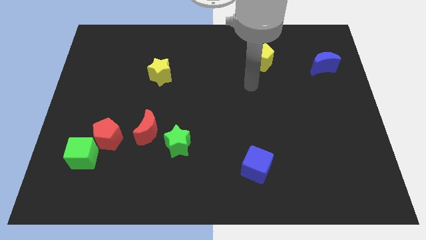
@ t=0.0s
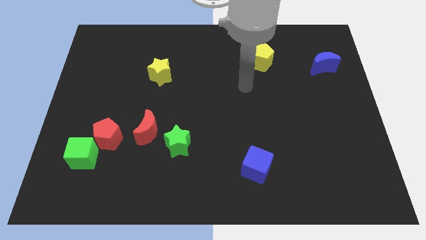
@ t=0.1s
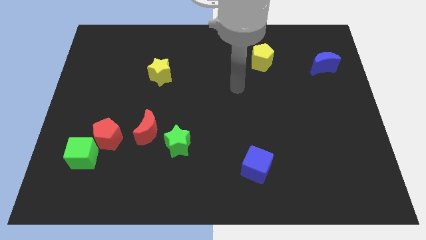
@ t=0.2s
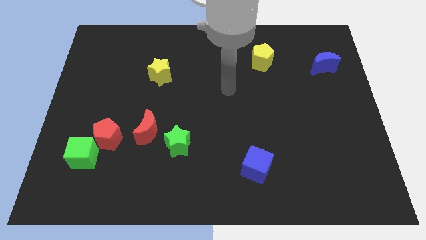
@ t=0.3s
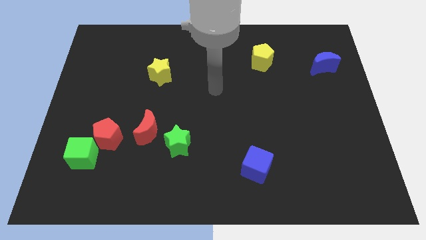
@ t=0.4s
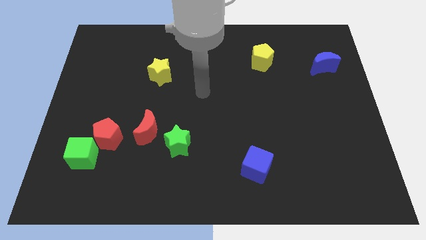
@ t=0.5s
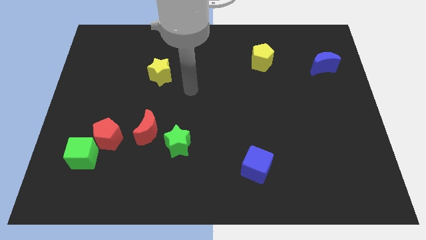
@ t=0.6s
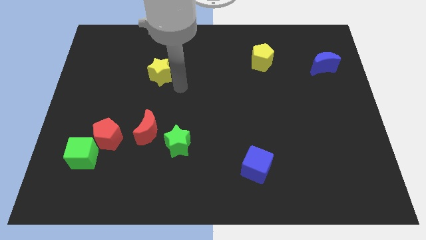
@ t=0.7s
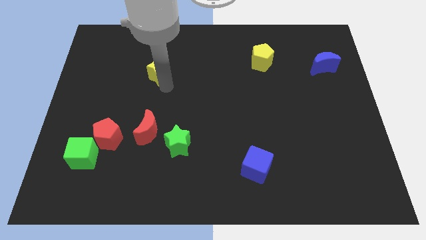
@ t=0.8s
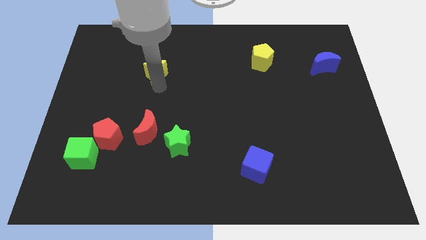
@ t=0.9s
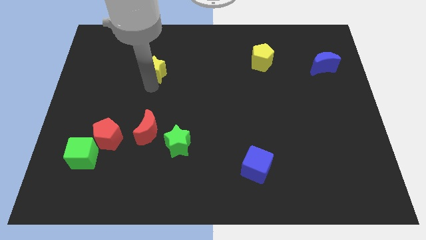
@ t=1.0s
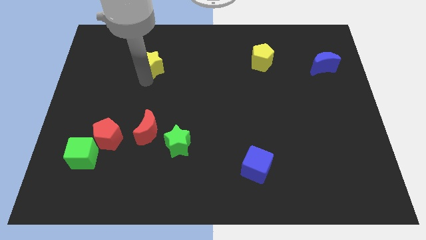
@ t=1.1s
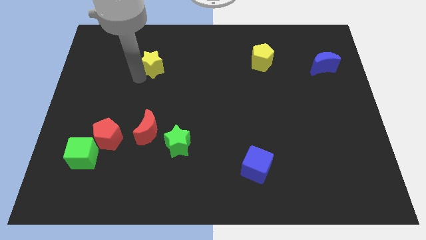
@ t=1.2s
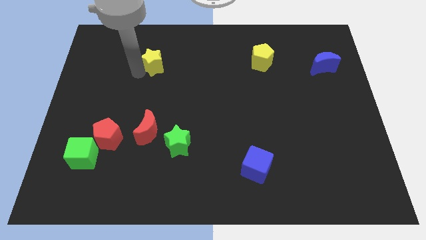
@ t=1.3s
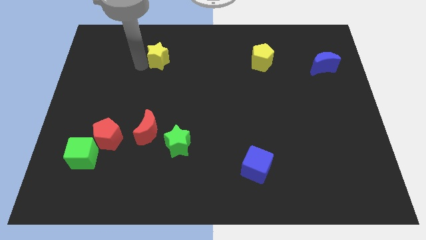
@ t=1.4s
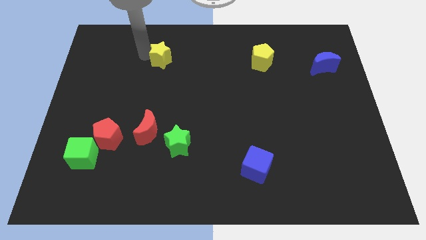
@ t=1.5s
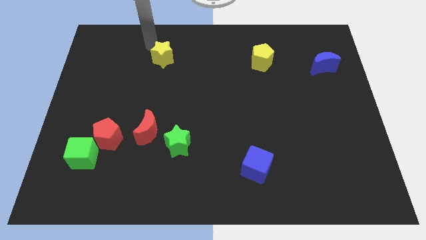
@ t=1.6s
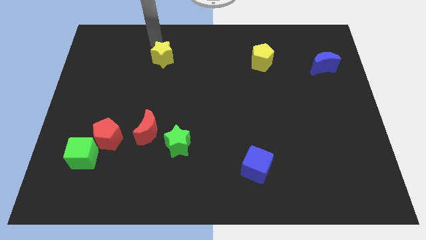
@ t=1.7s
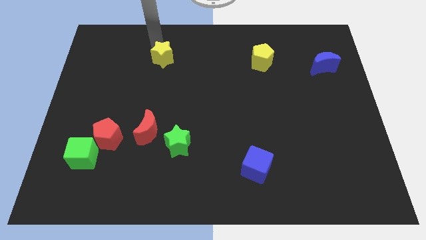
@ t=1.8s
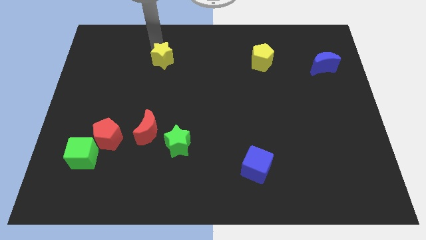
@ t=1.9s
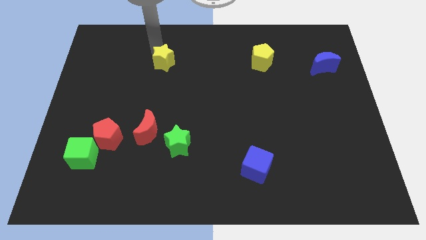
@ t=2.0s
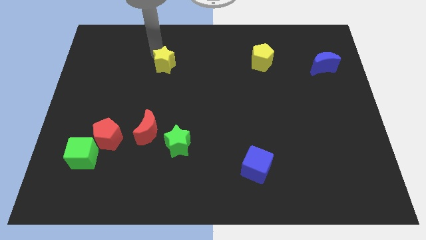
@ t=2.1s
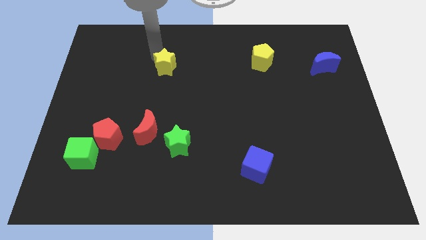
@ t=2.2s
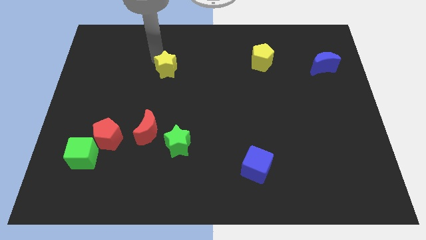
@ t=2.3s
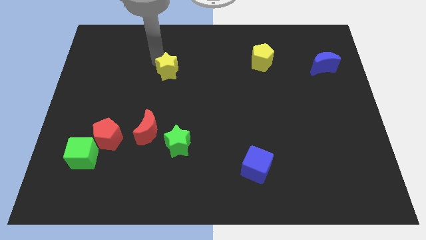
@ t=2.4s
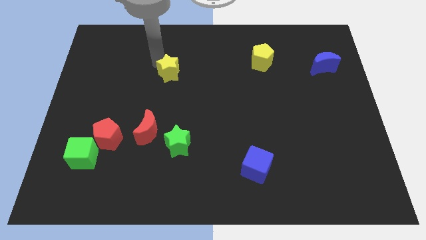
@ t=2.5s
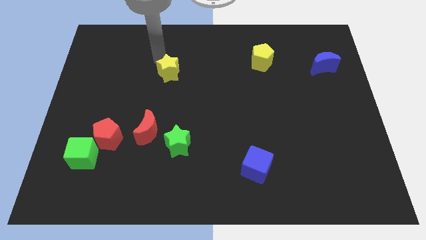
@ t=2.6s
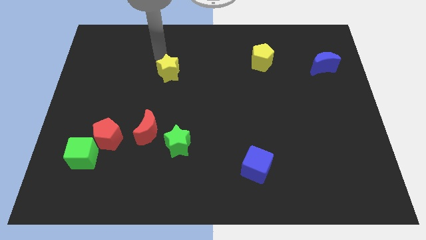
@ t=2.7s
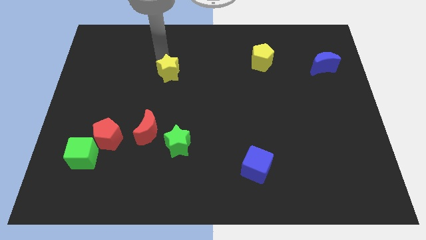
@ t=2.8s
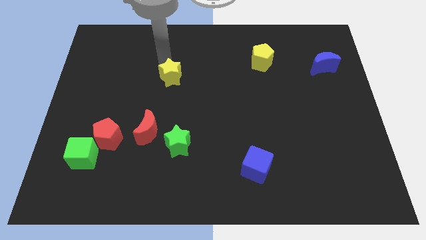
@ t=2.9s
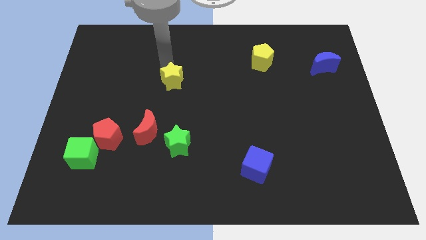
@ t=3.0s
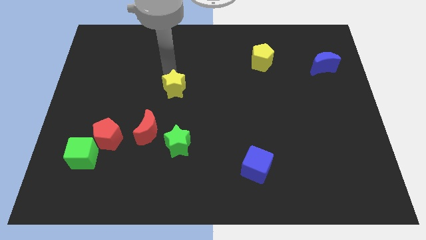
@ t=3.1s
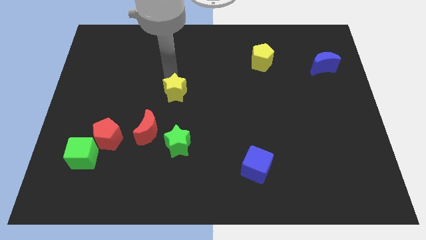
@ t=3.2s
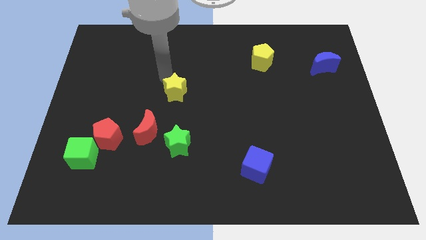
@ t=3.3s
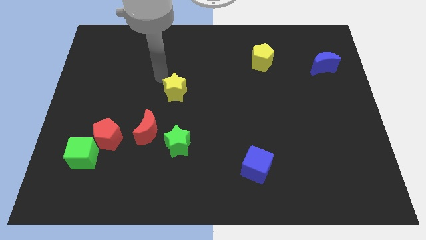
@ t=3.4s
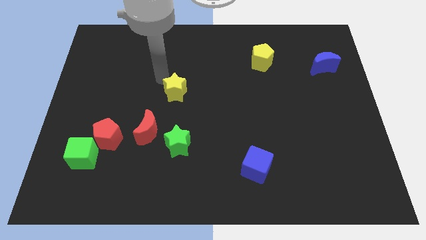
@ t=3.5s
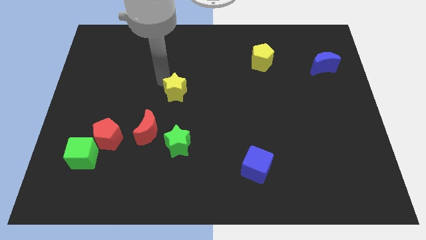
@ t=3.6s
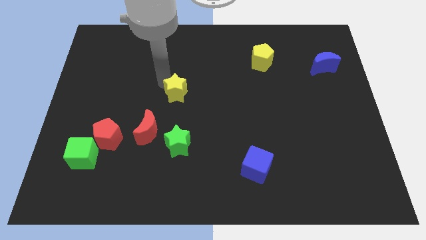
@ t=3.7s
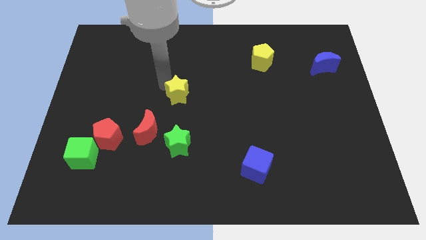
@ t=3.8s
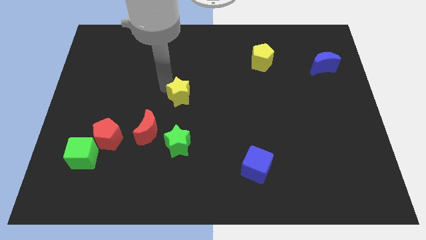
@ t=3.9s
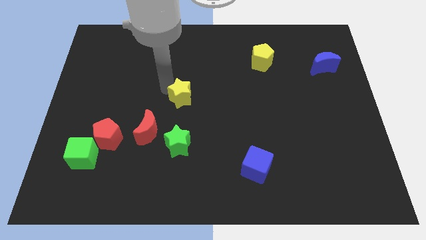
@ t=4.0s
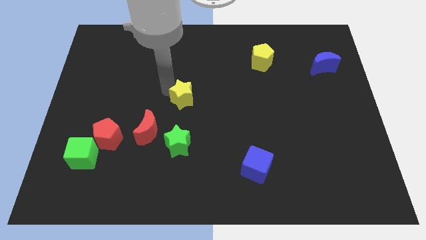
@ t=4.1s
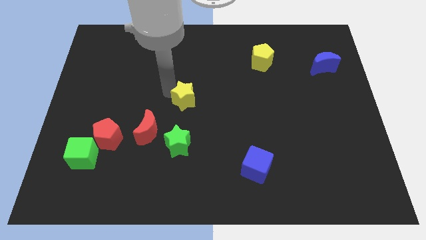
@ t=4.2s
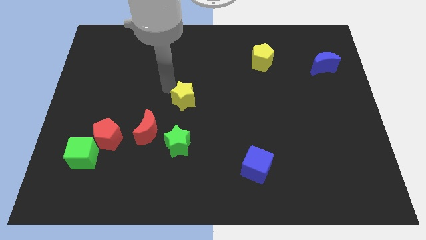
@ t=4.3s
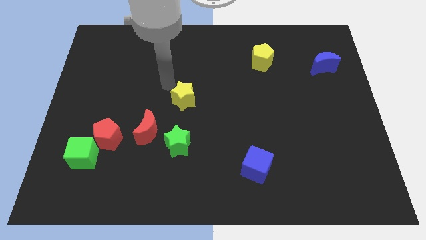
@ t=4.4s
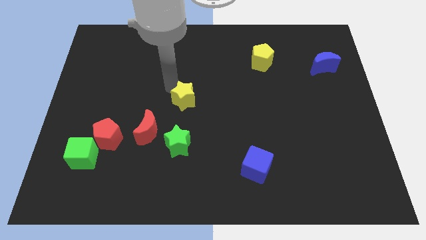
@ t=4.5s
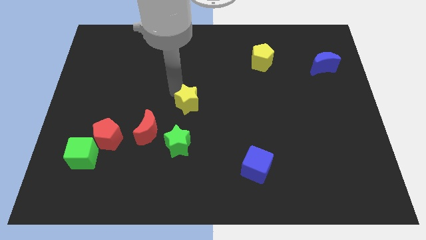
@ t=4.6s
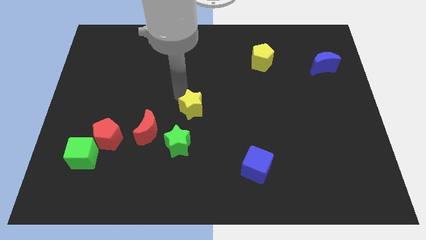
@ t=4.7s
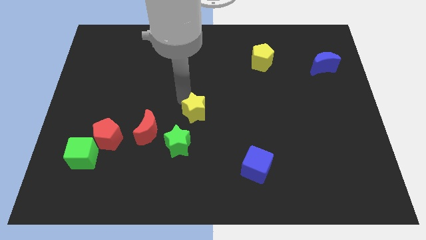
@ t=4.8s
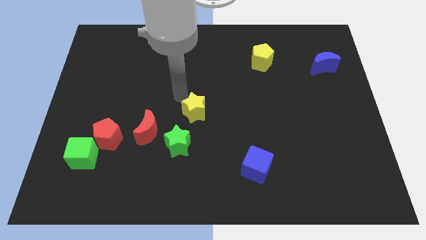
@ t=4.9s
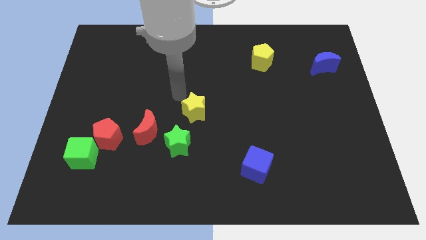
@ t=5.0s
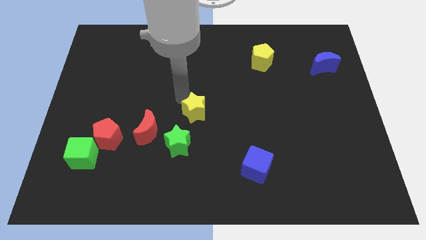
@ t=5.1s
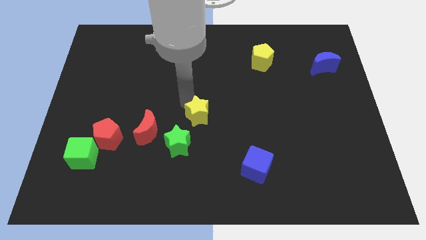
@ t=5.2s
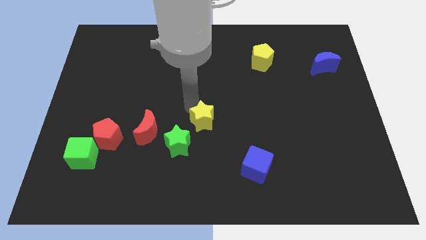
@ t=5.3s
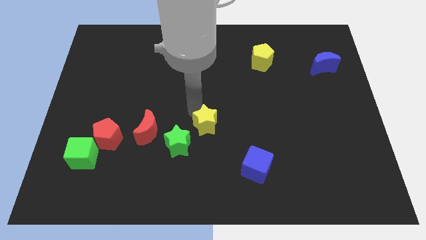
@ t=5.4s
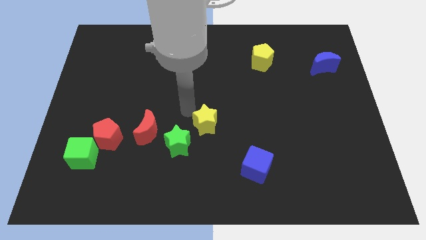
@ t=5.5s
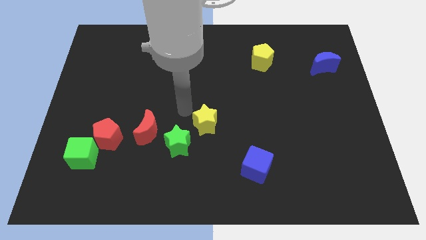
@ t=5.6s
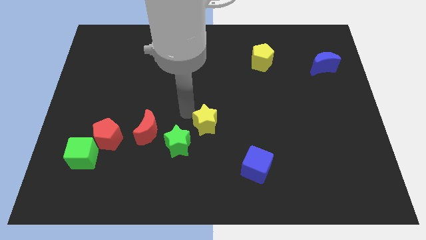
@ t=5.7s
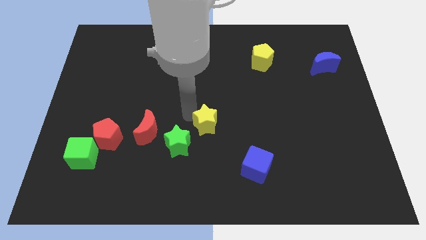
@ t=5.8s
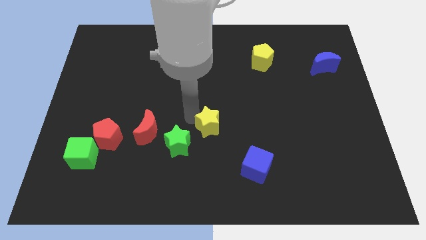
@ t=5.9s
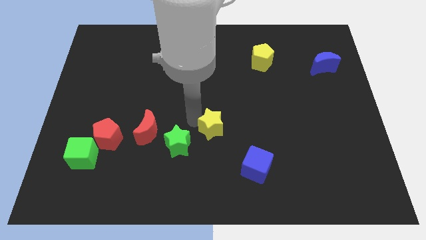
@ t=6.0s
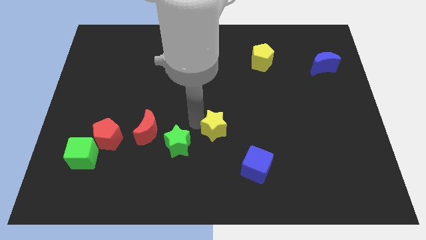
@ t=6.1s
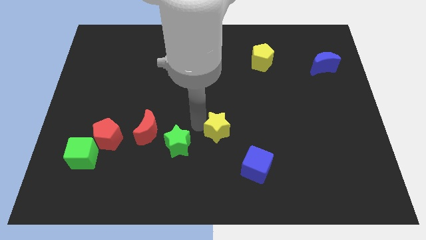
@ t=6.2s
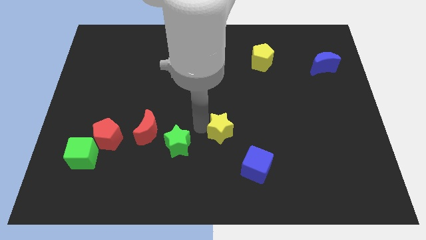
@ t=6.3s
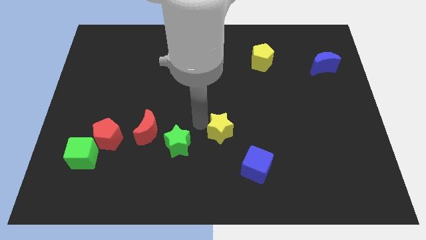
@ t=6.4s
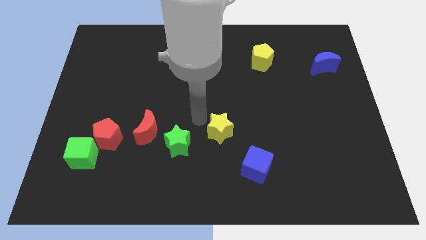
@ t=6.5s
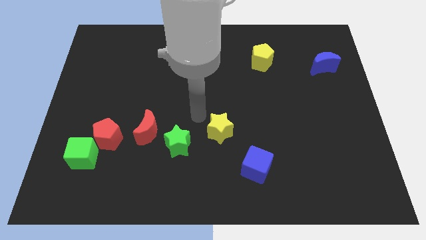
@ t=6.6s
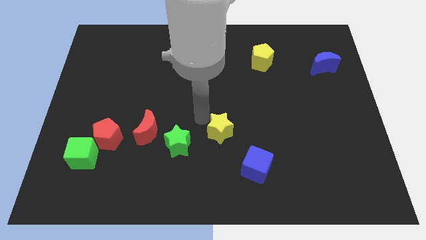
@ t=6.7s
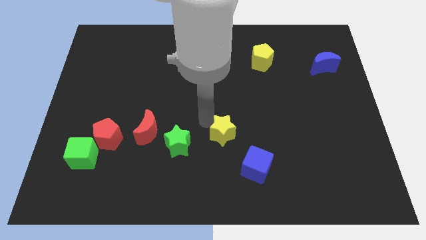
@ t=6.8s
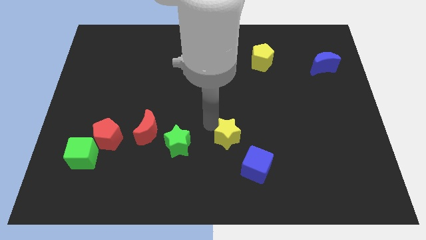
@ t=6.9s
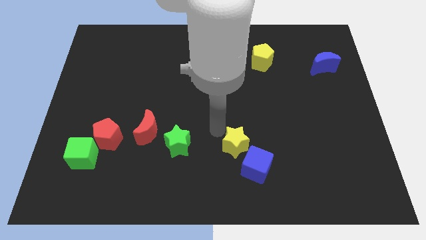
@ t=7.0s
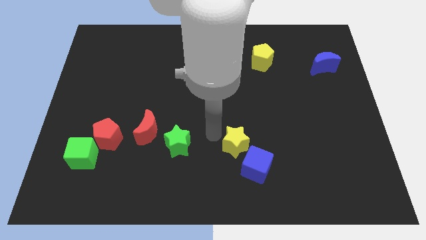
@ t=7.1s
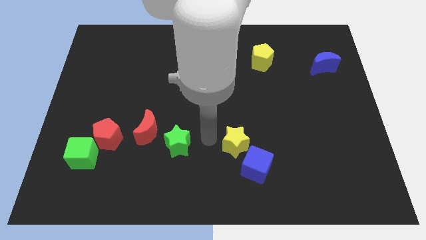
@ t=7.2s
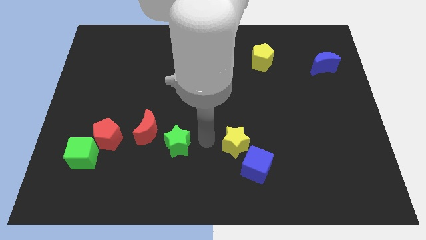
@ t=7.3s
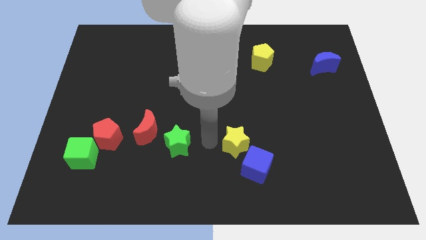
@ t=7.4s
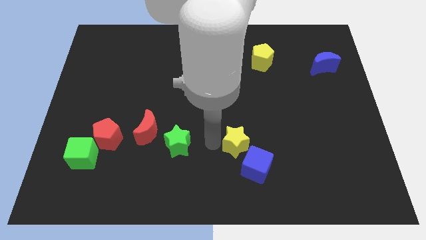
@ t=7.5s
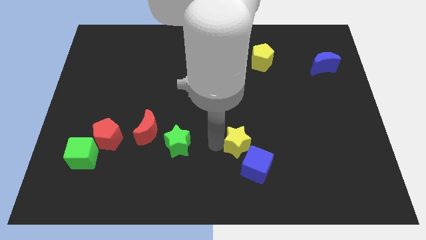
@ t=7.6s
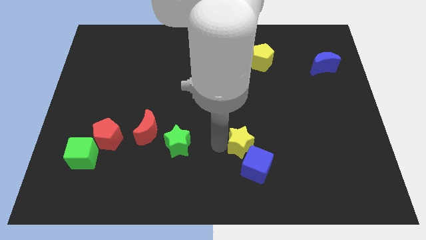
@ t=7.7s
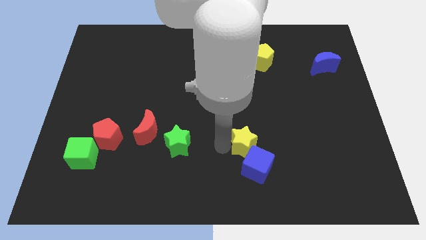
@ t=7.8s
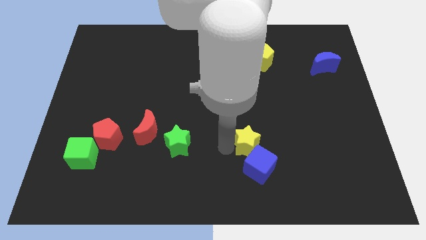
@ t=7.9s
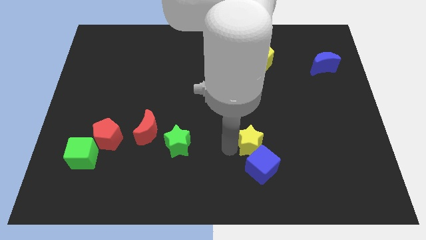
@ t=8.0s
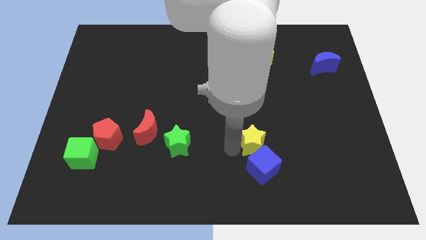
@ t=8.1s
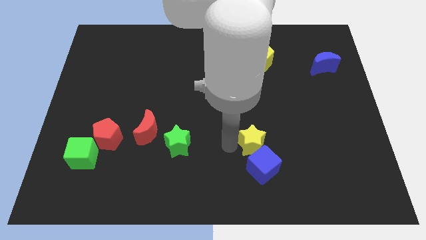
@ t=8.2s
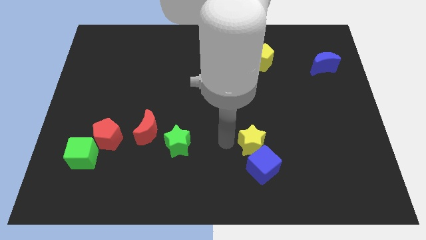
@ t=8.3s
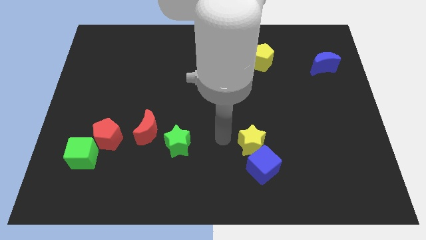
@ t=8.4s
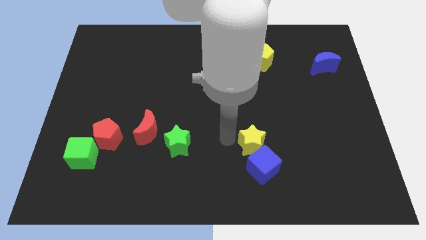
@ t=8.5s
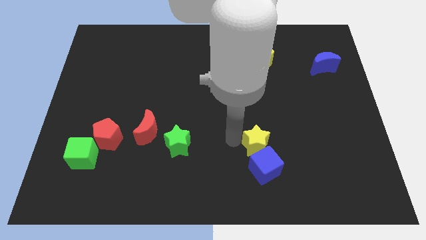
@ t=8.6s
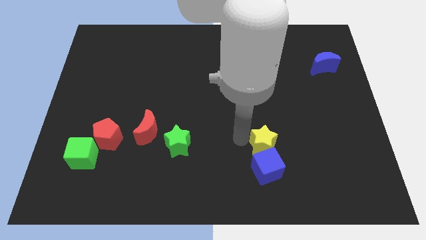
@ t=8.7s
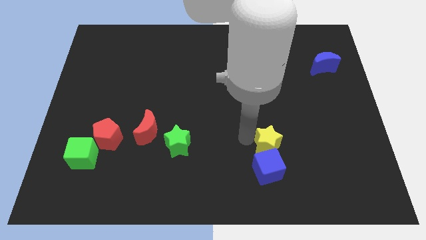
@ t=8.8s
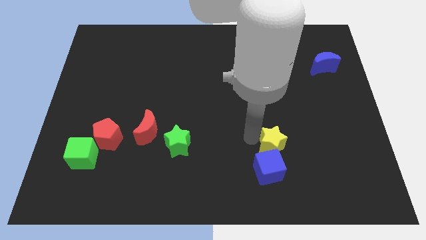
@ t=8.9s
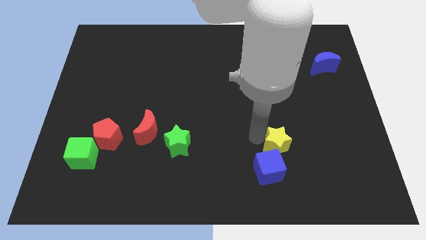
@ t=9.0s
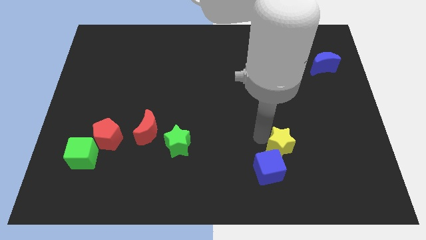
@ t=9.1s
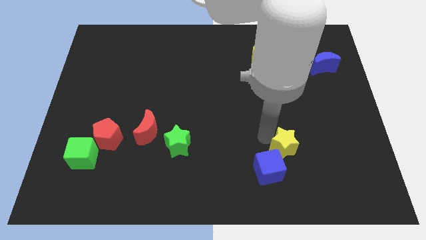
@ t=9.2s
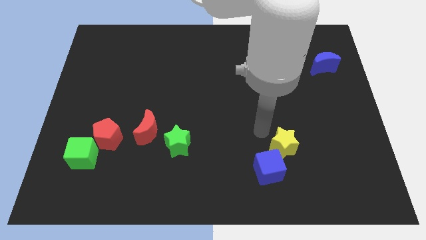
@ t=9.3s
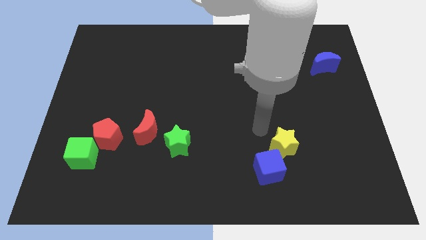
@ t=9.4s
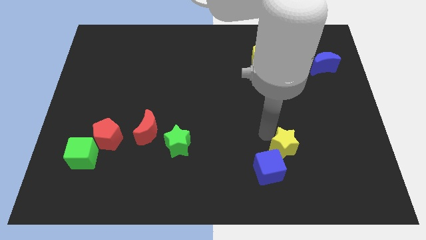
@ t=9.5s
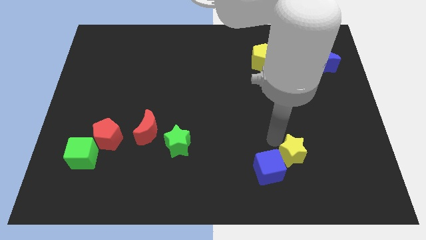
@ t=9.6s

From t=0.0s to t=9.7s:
push the yellow star just right of the blue cube
